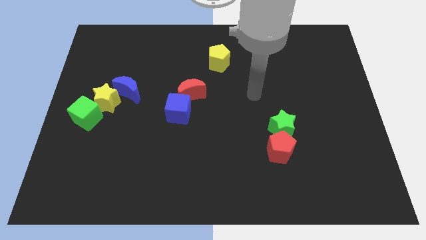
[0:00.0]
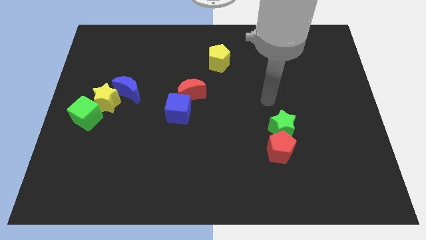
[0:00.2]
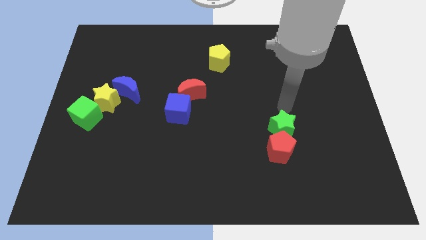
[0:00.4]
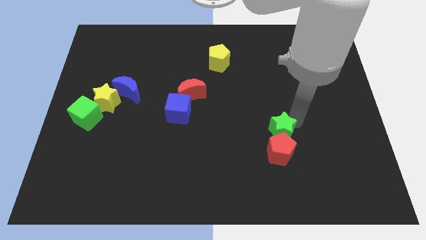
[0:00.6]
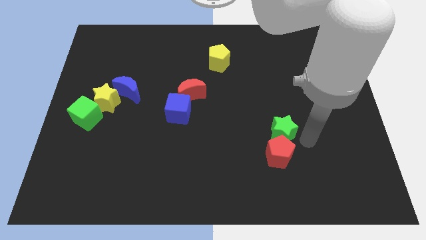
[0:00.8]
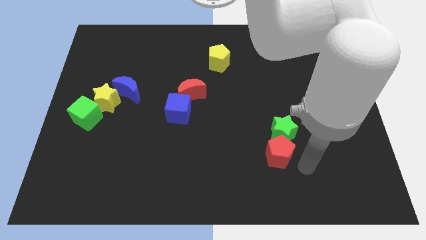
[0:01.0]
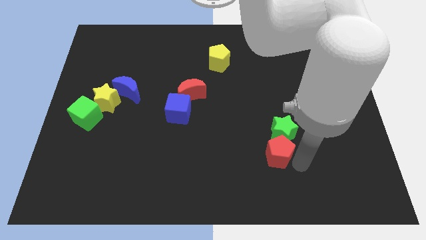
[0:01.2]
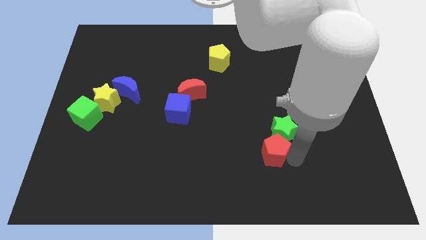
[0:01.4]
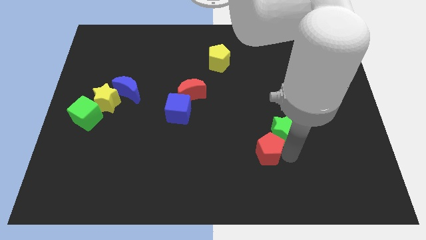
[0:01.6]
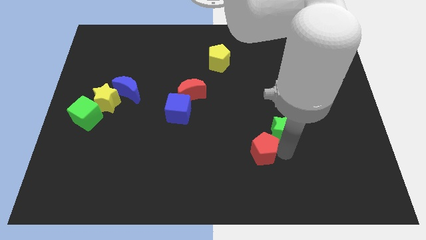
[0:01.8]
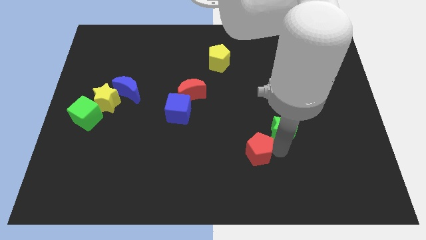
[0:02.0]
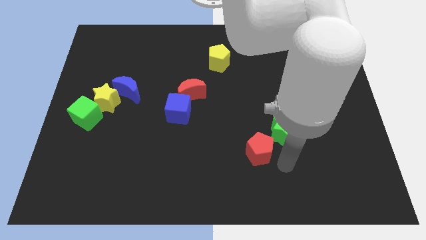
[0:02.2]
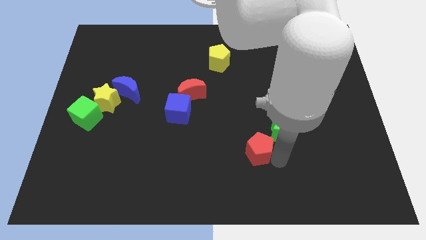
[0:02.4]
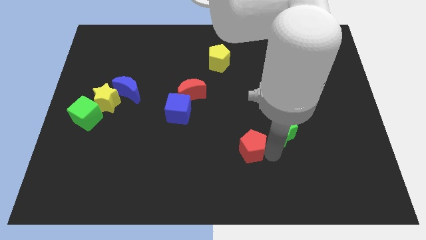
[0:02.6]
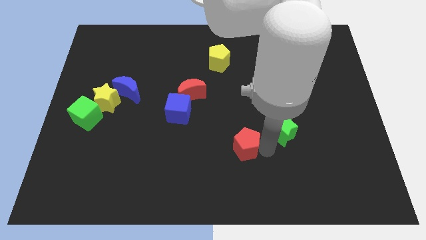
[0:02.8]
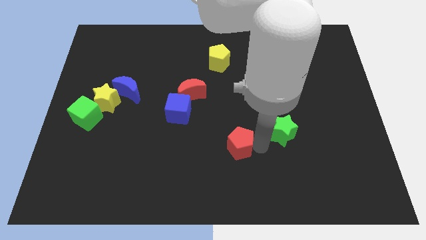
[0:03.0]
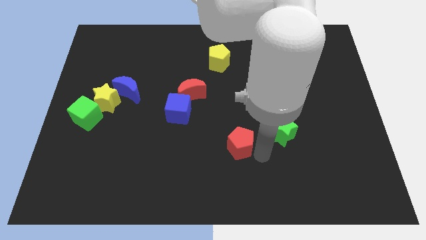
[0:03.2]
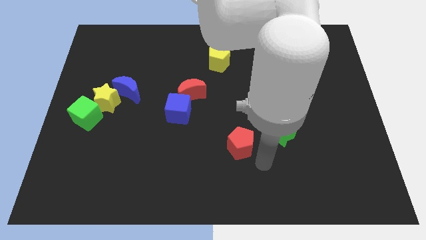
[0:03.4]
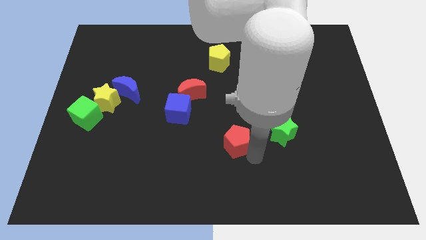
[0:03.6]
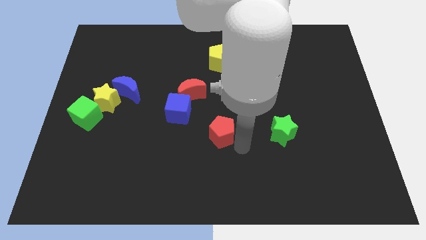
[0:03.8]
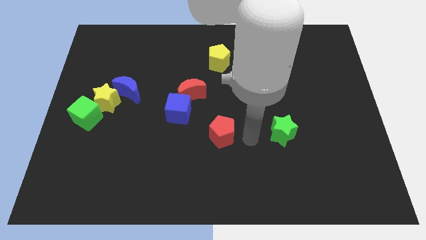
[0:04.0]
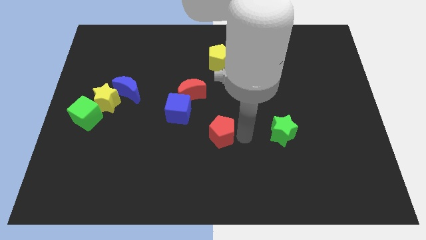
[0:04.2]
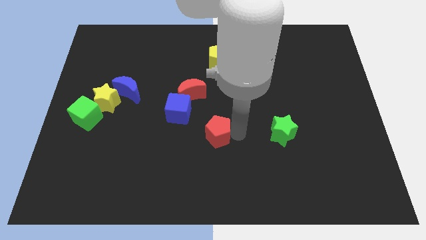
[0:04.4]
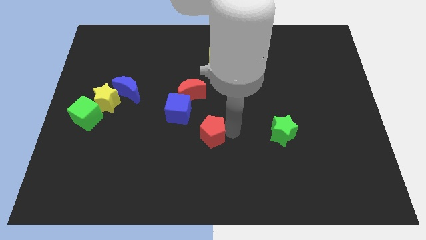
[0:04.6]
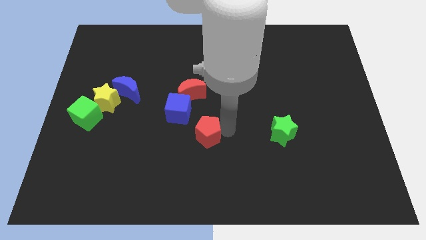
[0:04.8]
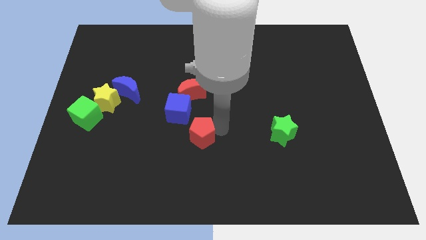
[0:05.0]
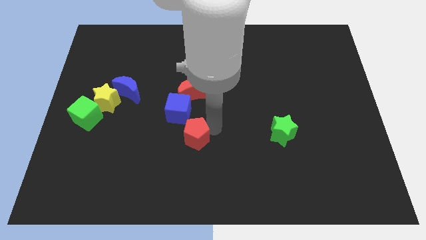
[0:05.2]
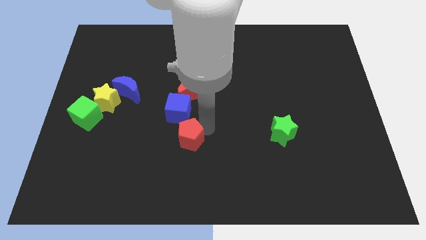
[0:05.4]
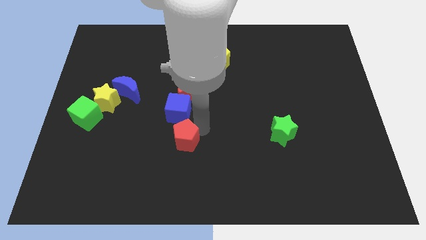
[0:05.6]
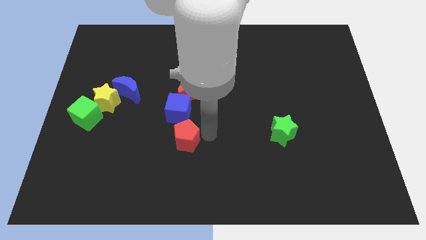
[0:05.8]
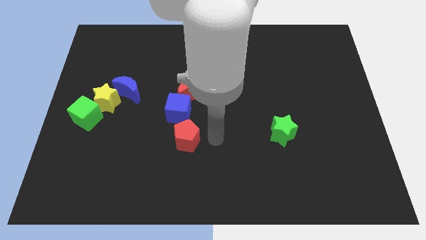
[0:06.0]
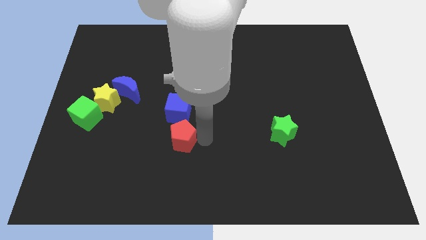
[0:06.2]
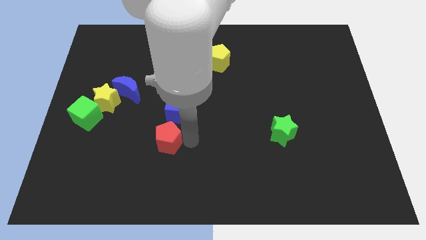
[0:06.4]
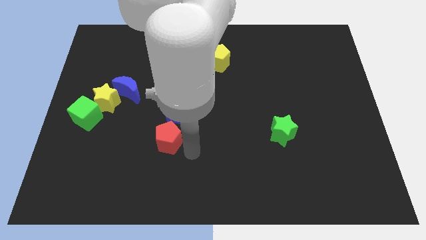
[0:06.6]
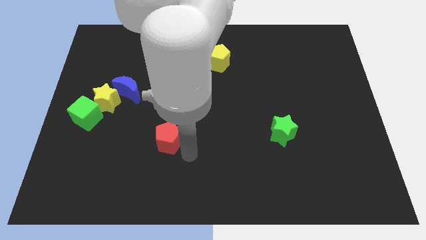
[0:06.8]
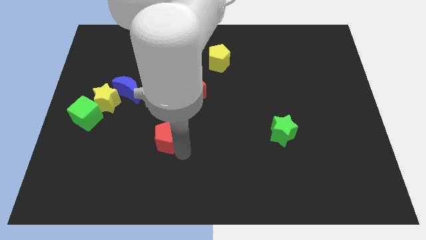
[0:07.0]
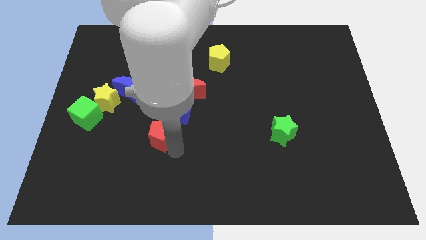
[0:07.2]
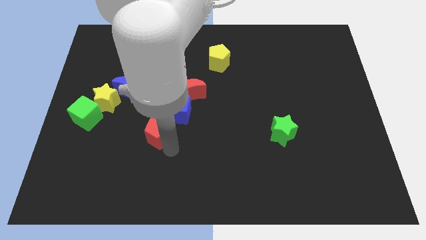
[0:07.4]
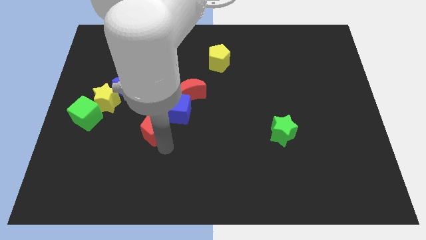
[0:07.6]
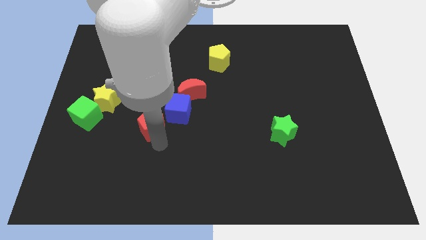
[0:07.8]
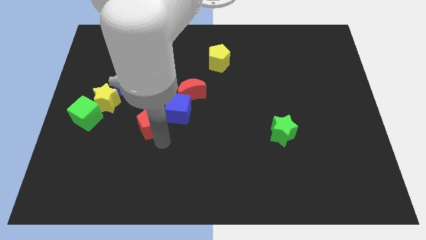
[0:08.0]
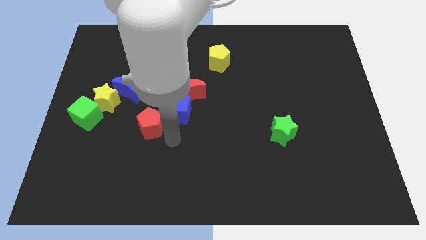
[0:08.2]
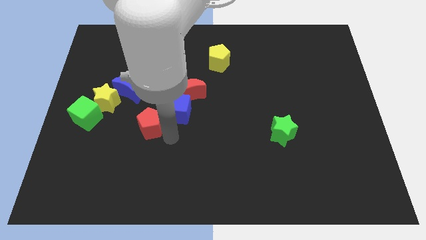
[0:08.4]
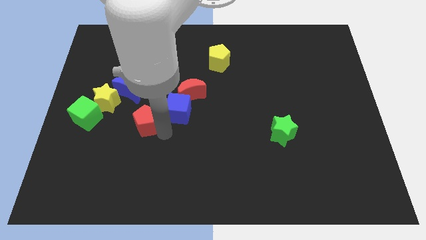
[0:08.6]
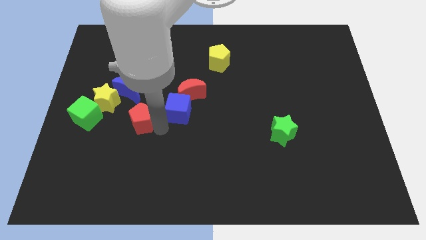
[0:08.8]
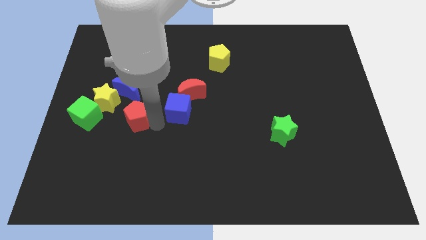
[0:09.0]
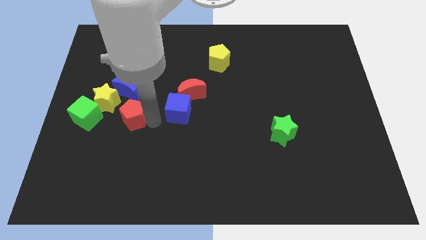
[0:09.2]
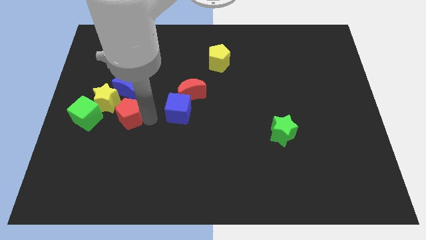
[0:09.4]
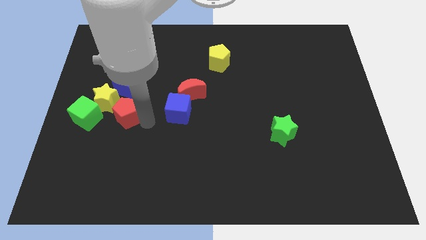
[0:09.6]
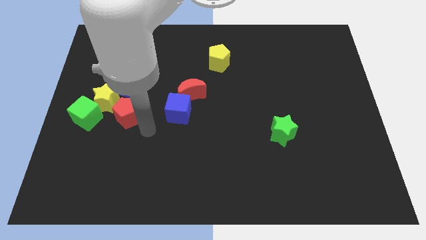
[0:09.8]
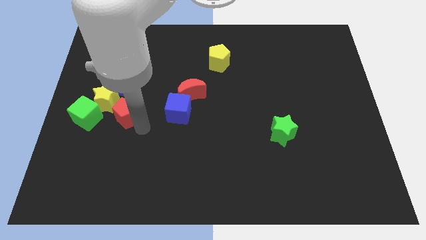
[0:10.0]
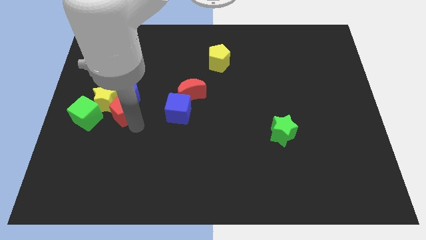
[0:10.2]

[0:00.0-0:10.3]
slide the red pentagon close to the yellow star

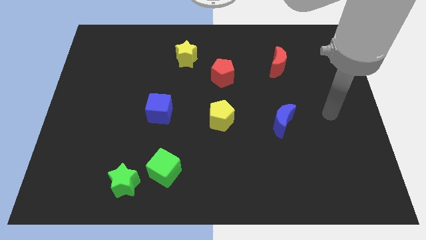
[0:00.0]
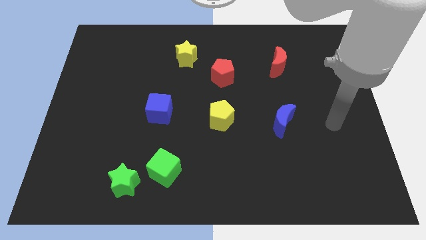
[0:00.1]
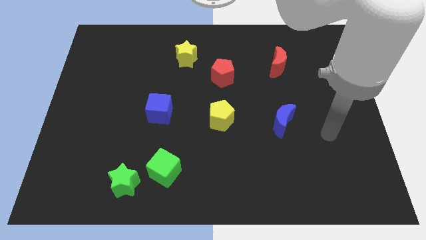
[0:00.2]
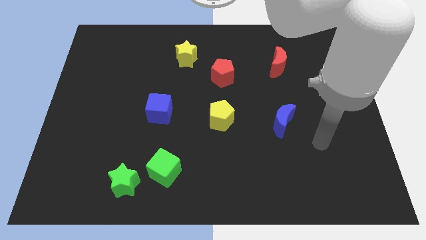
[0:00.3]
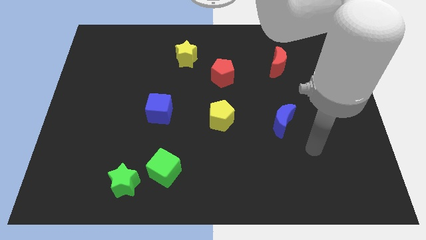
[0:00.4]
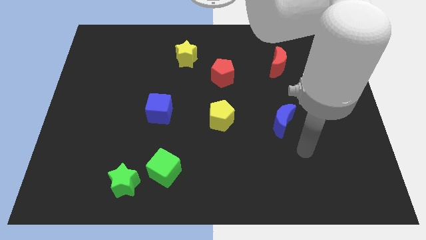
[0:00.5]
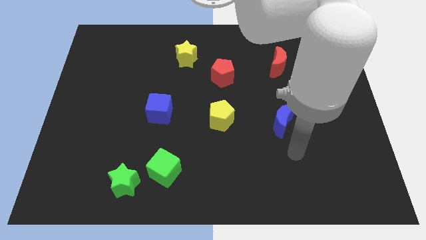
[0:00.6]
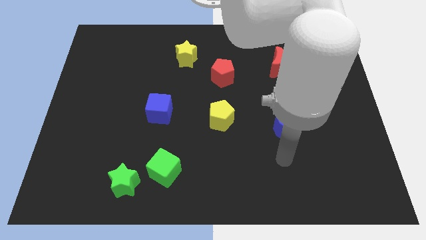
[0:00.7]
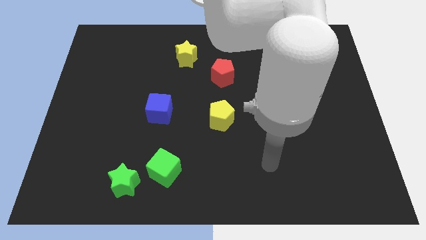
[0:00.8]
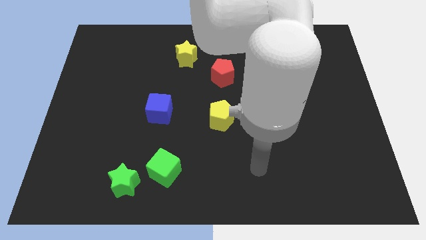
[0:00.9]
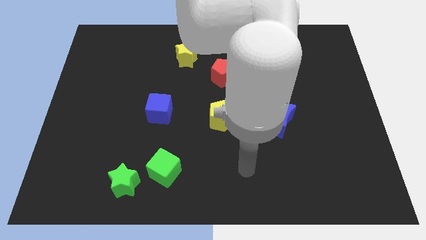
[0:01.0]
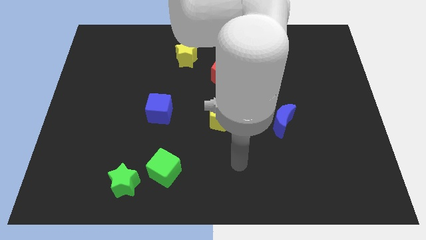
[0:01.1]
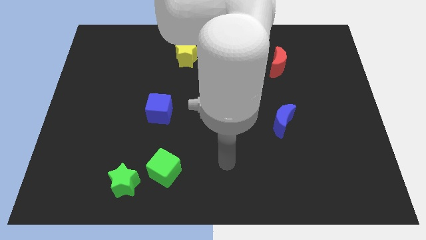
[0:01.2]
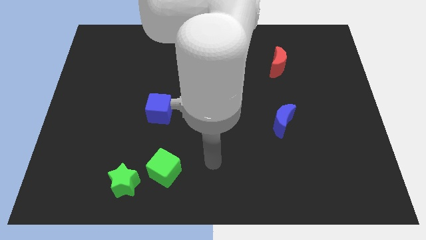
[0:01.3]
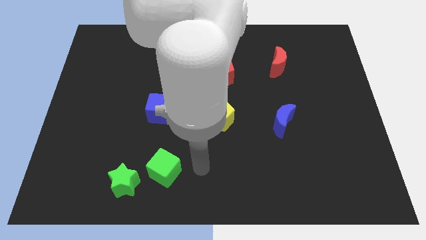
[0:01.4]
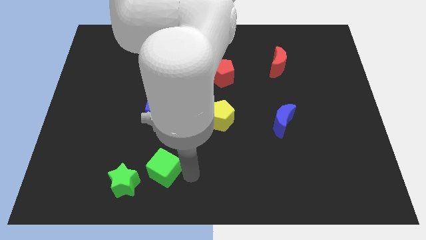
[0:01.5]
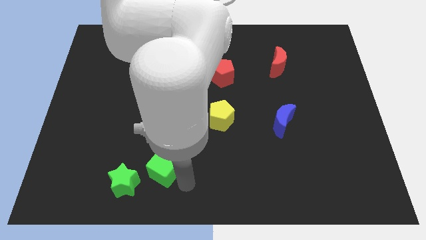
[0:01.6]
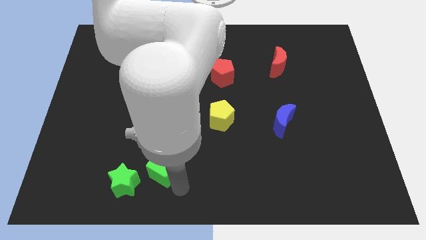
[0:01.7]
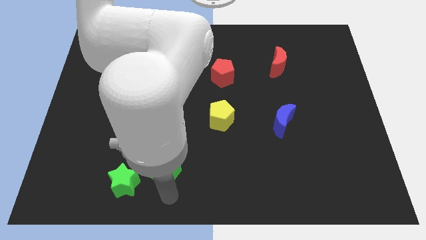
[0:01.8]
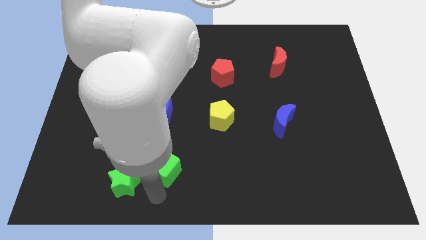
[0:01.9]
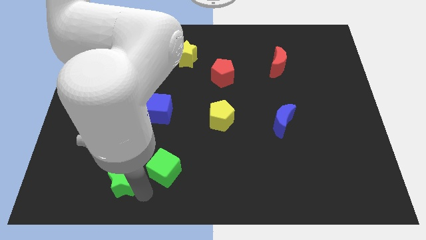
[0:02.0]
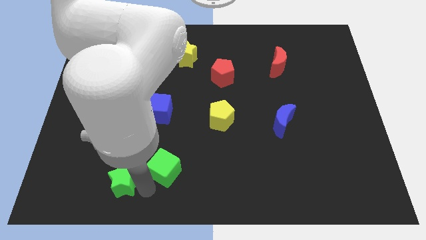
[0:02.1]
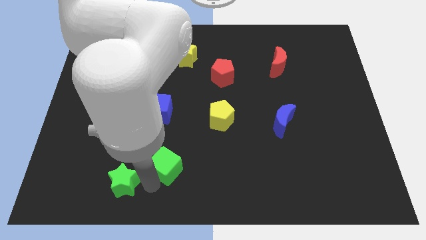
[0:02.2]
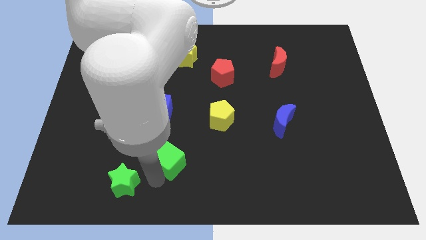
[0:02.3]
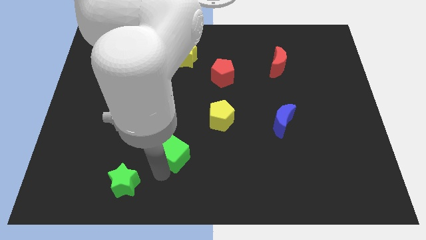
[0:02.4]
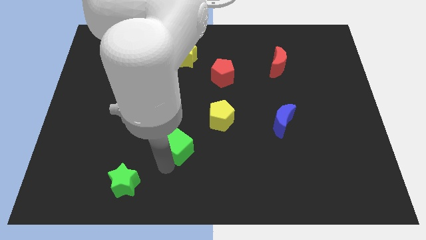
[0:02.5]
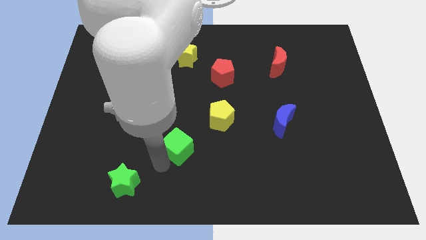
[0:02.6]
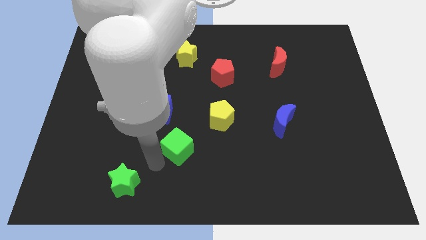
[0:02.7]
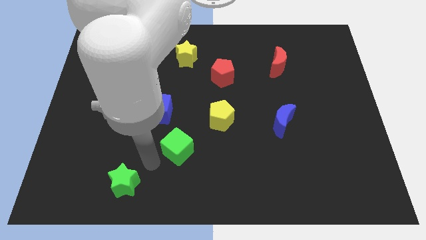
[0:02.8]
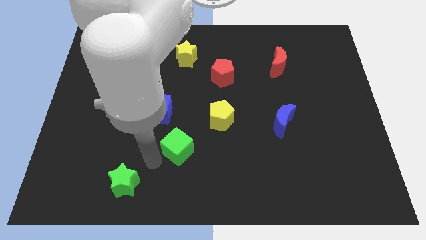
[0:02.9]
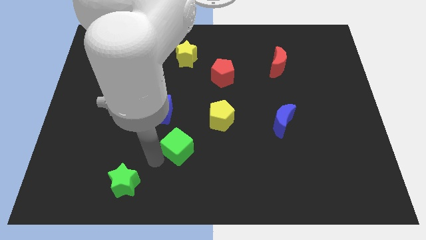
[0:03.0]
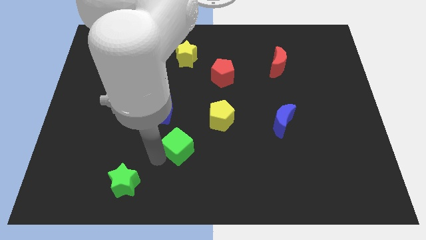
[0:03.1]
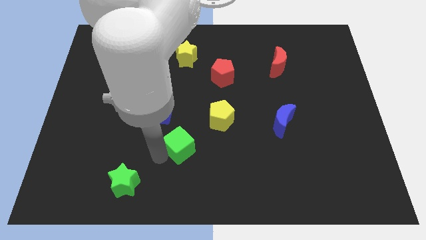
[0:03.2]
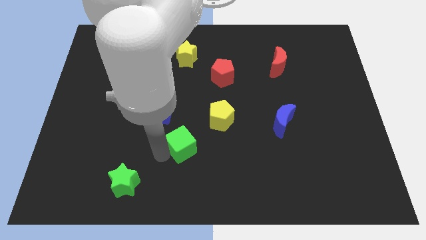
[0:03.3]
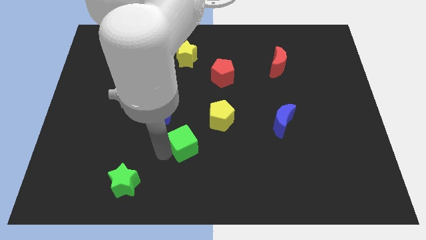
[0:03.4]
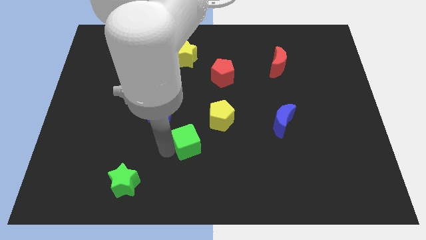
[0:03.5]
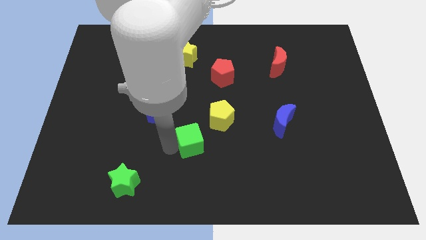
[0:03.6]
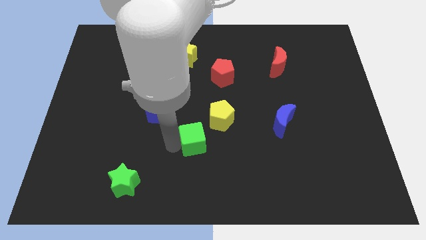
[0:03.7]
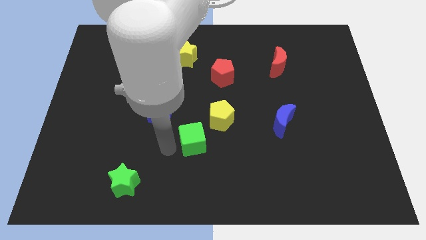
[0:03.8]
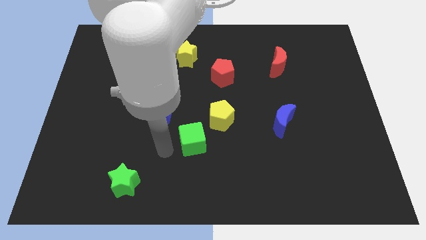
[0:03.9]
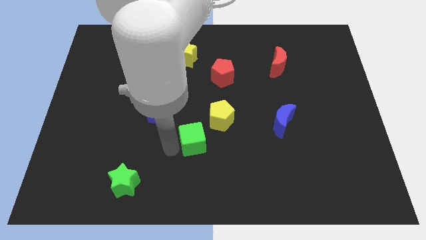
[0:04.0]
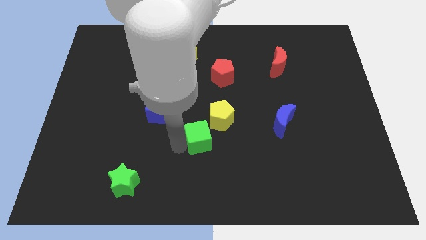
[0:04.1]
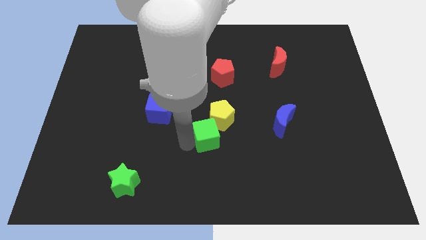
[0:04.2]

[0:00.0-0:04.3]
push the green cube towards the yellow pentagon
